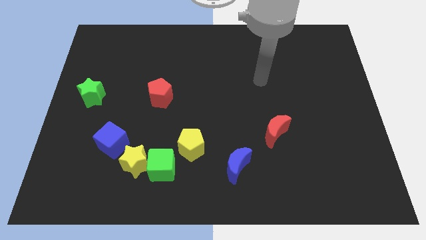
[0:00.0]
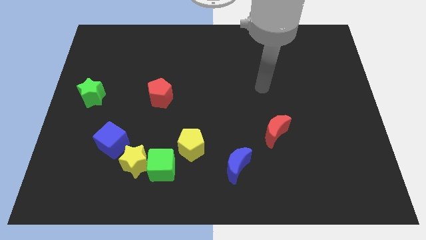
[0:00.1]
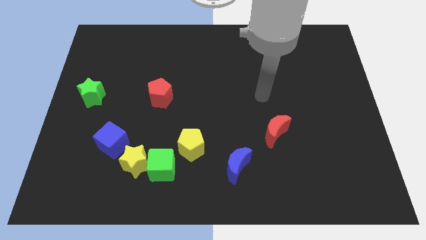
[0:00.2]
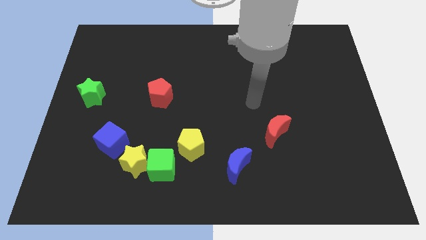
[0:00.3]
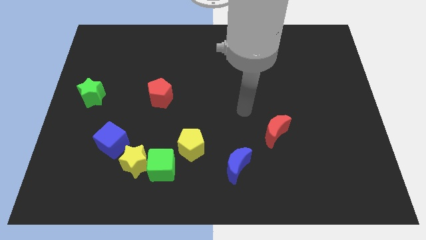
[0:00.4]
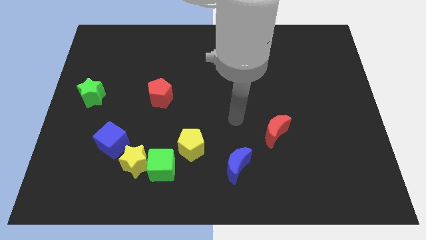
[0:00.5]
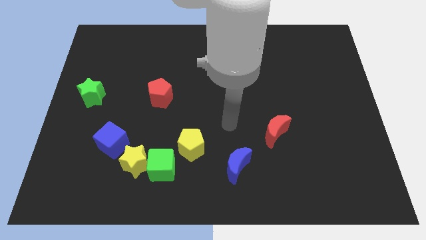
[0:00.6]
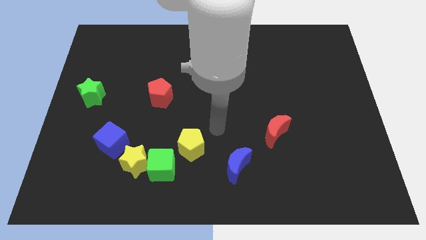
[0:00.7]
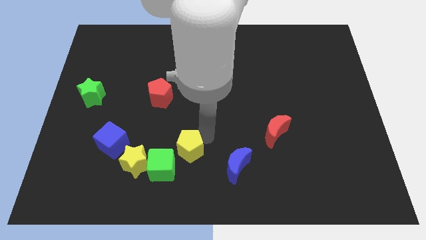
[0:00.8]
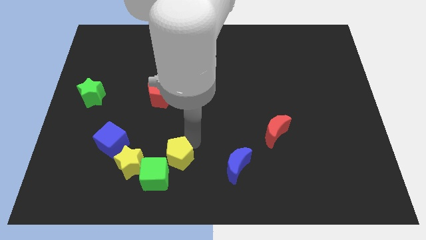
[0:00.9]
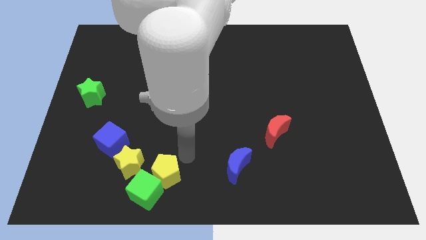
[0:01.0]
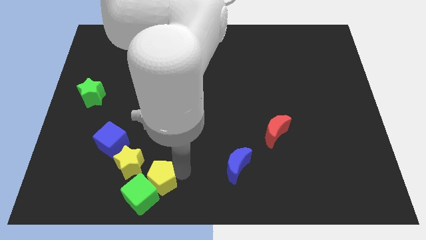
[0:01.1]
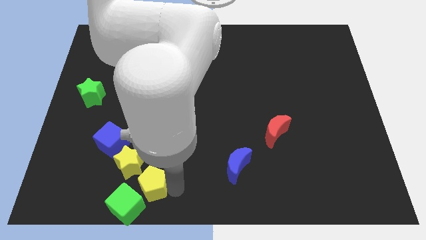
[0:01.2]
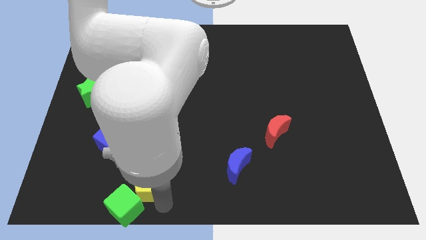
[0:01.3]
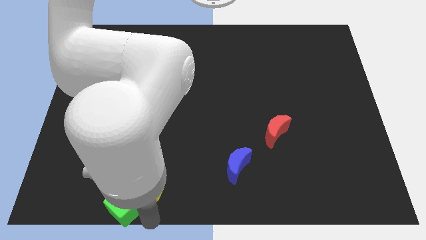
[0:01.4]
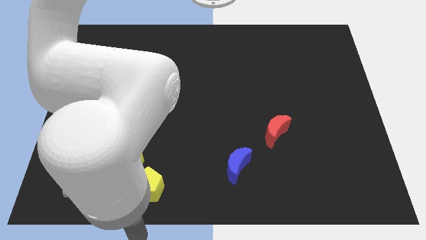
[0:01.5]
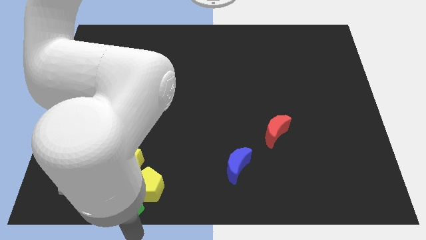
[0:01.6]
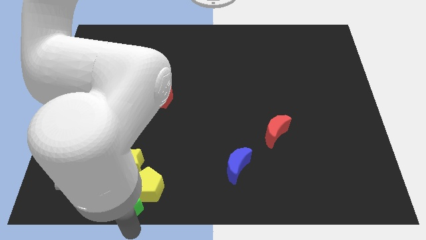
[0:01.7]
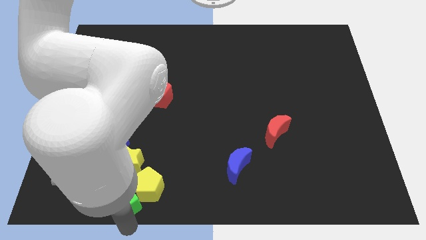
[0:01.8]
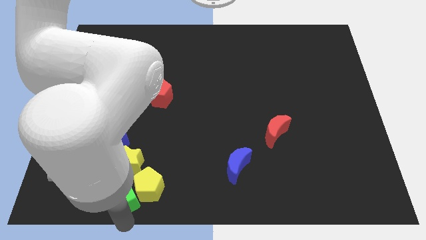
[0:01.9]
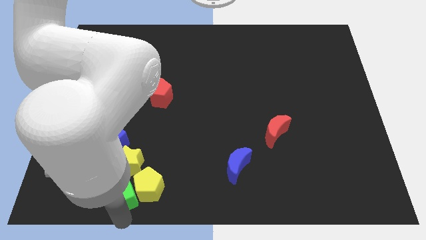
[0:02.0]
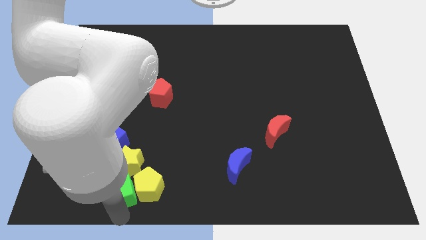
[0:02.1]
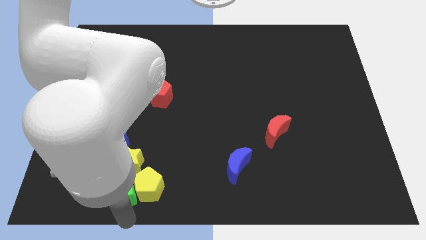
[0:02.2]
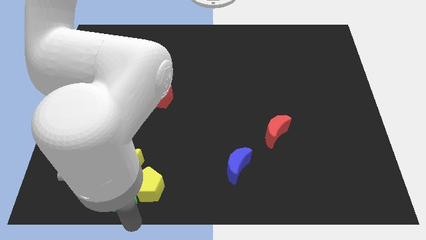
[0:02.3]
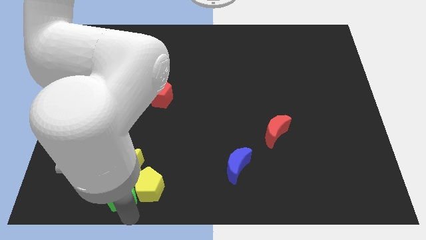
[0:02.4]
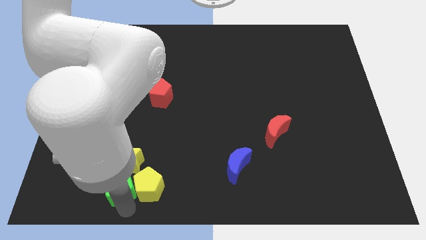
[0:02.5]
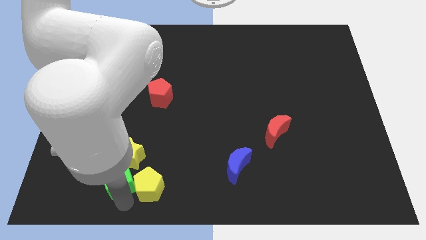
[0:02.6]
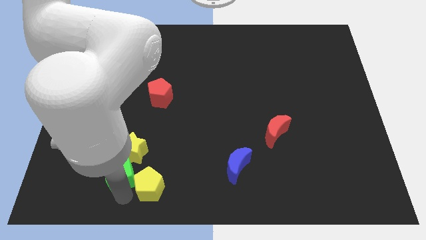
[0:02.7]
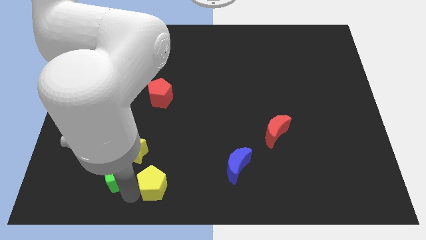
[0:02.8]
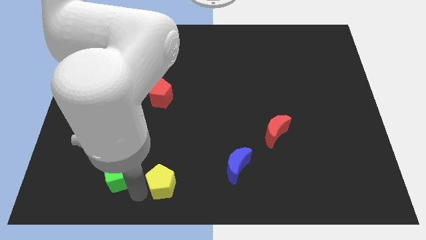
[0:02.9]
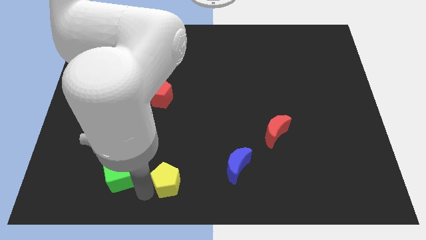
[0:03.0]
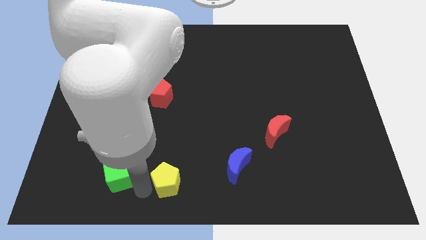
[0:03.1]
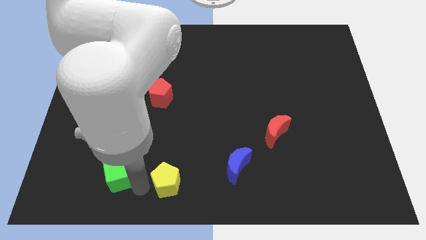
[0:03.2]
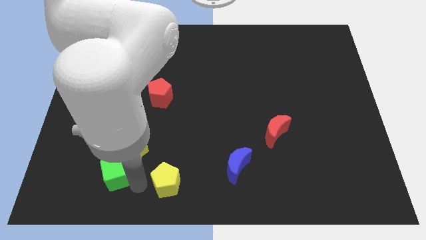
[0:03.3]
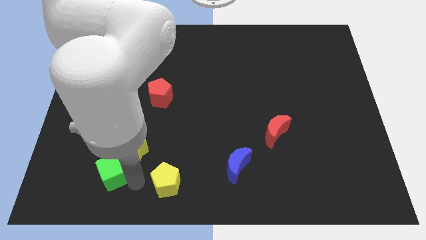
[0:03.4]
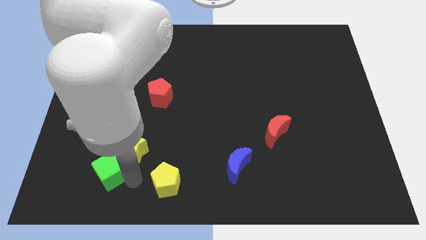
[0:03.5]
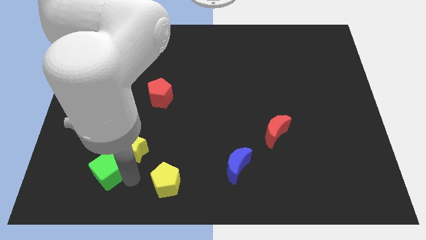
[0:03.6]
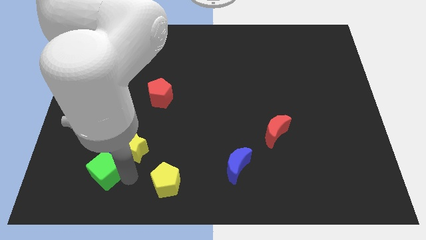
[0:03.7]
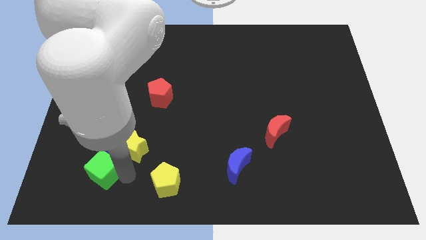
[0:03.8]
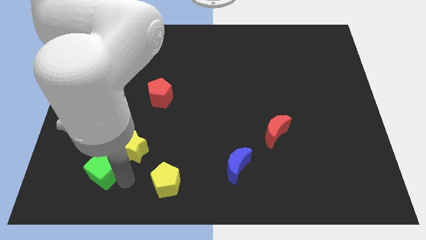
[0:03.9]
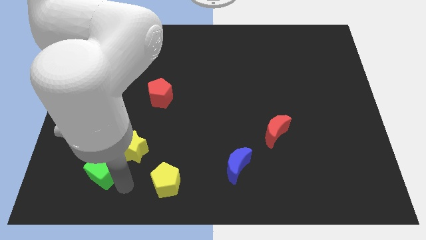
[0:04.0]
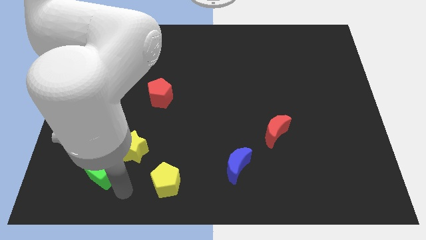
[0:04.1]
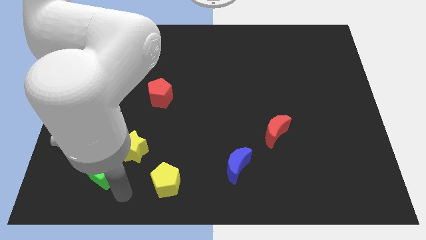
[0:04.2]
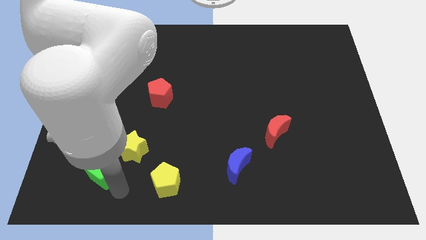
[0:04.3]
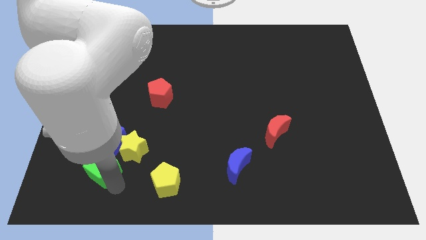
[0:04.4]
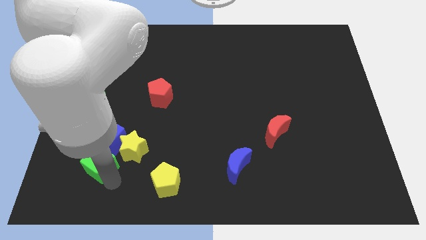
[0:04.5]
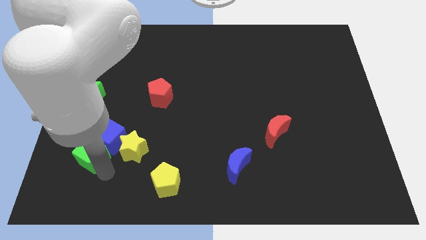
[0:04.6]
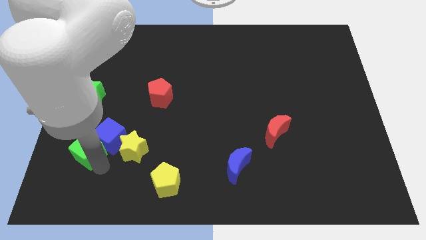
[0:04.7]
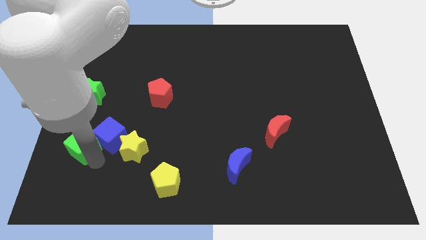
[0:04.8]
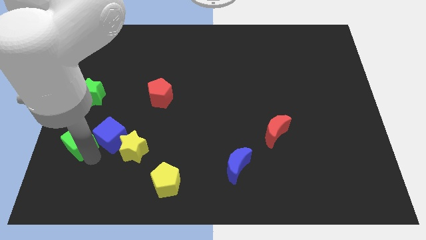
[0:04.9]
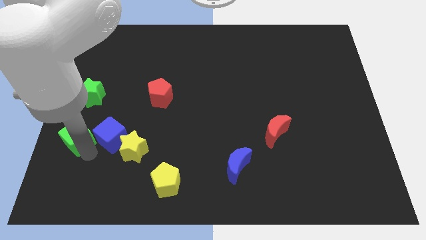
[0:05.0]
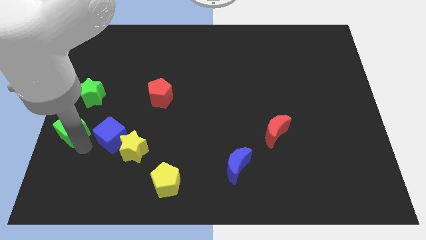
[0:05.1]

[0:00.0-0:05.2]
put the green cube to the left side

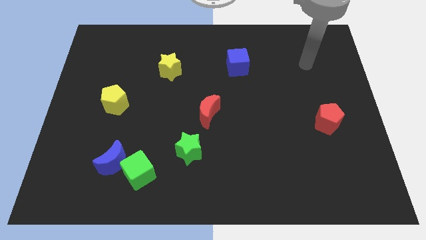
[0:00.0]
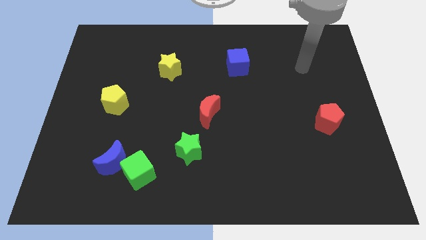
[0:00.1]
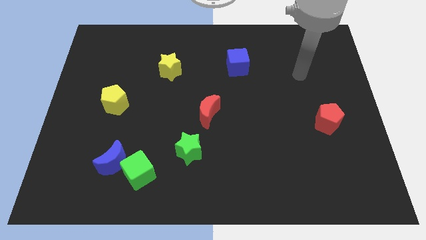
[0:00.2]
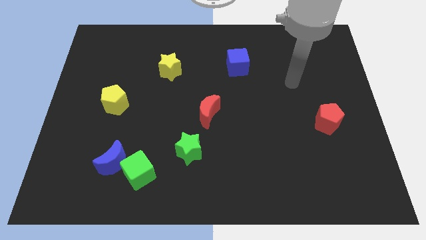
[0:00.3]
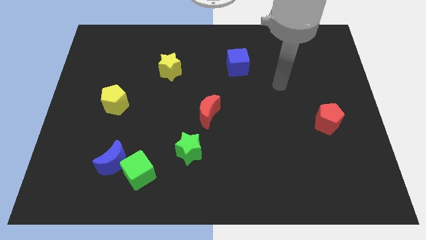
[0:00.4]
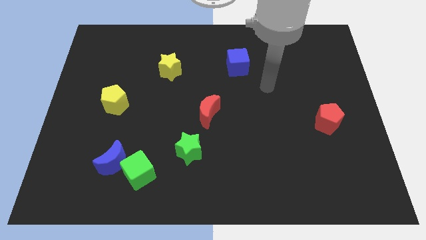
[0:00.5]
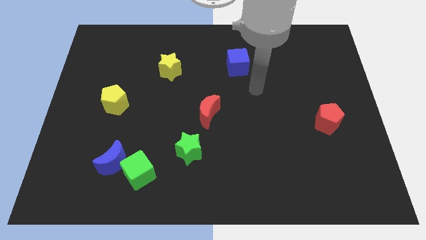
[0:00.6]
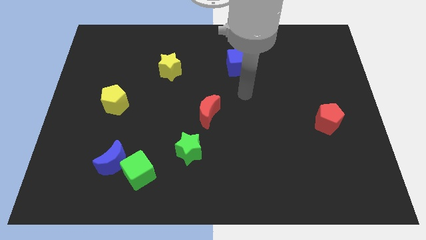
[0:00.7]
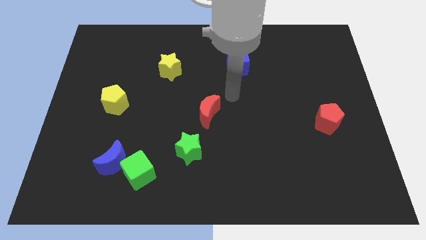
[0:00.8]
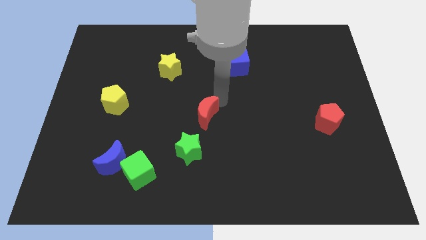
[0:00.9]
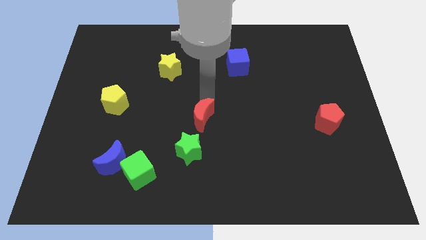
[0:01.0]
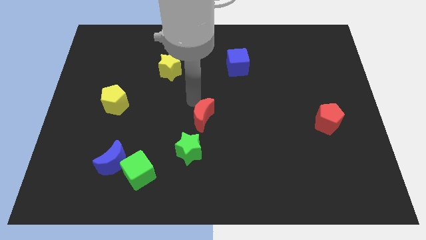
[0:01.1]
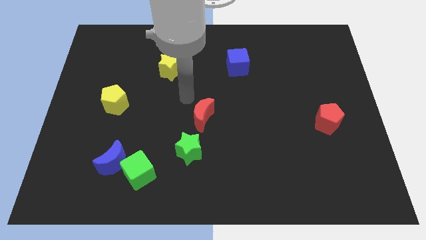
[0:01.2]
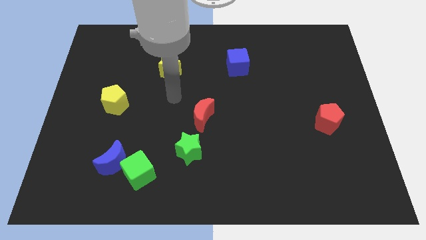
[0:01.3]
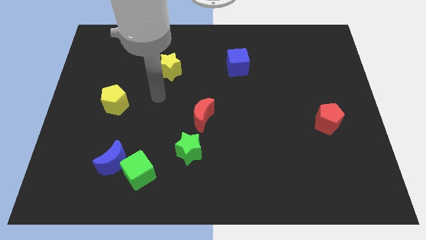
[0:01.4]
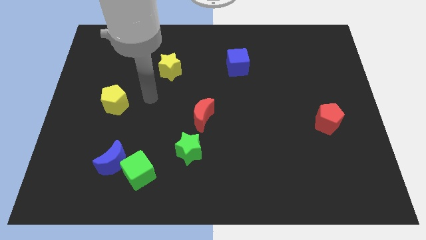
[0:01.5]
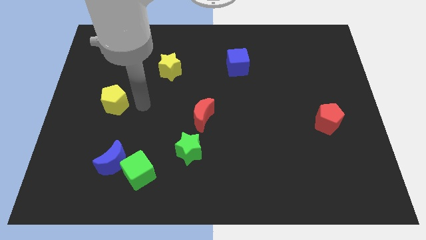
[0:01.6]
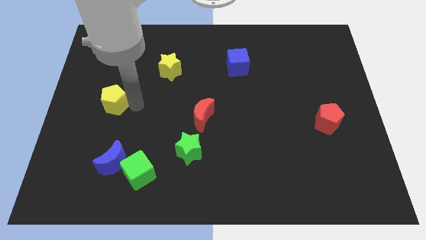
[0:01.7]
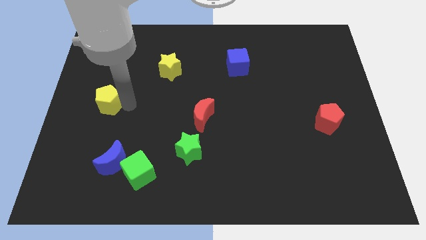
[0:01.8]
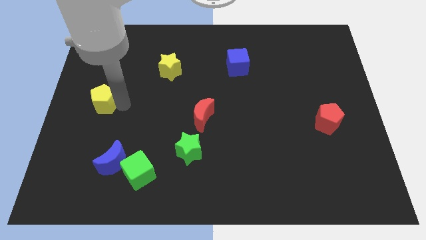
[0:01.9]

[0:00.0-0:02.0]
push the yellow pentagon to the left side
